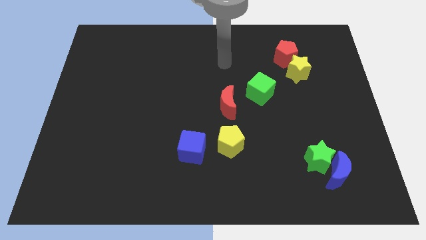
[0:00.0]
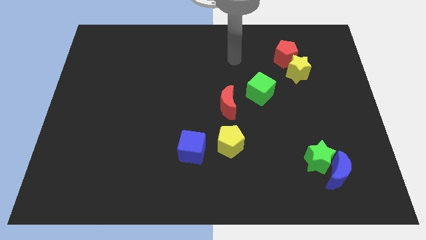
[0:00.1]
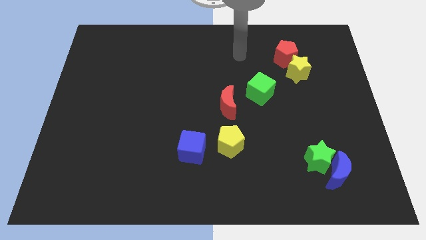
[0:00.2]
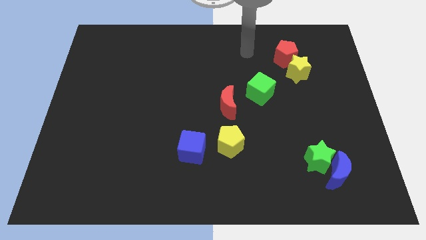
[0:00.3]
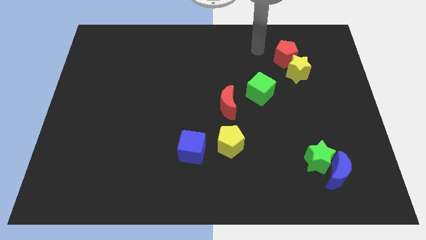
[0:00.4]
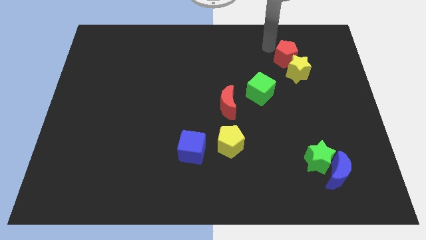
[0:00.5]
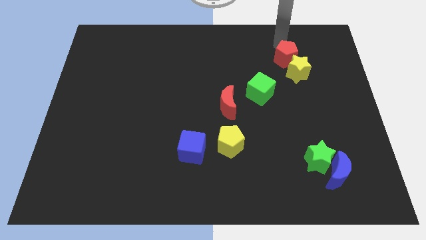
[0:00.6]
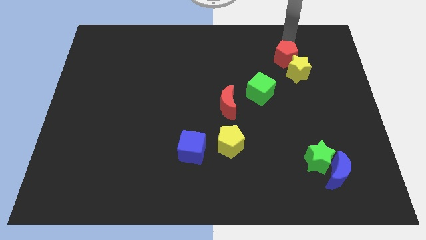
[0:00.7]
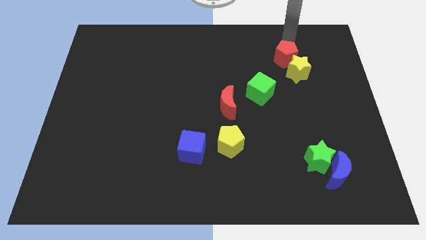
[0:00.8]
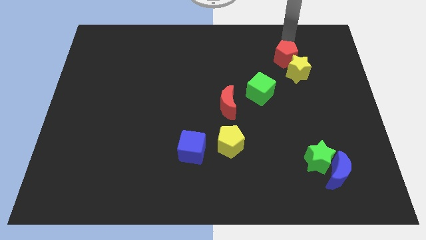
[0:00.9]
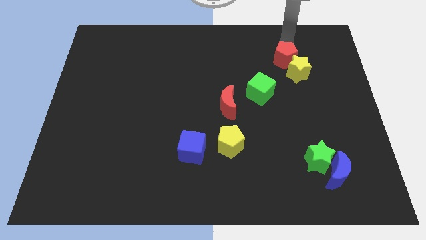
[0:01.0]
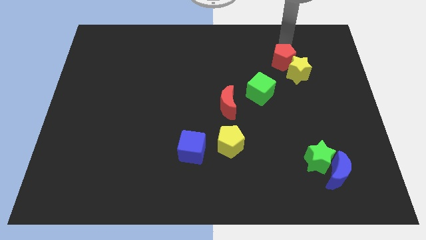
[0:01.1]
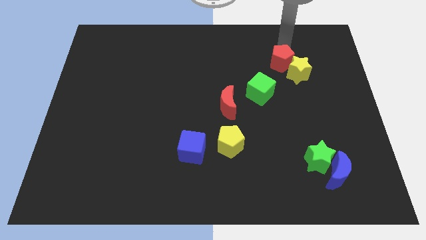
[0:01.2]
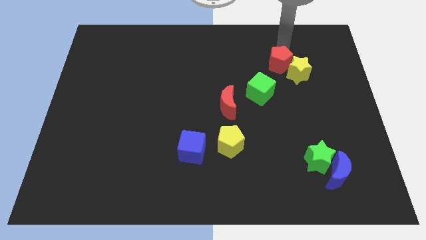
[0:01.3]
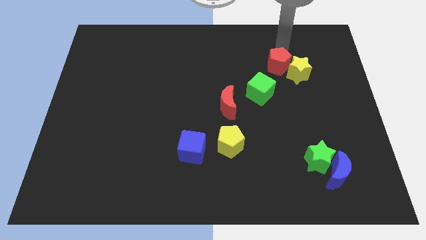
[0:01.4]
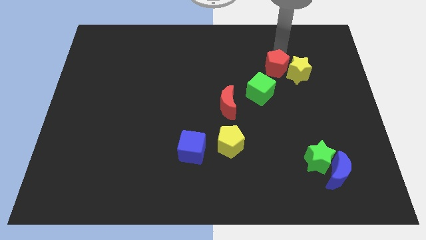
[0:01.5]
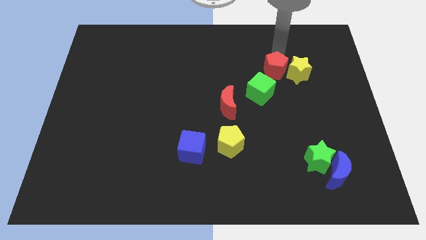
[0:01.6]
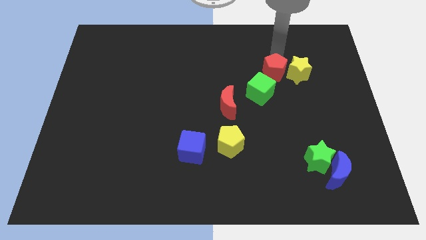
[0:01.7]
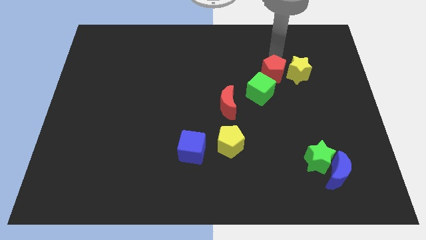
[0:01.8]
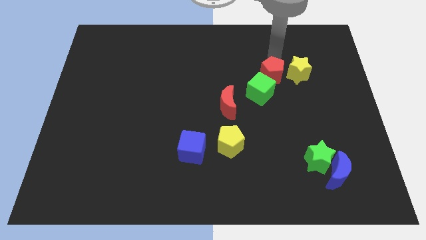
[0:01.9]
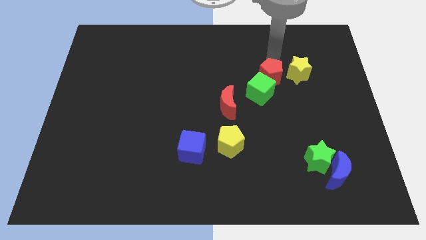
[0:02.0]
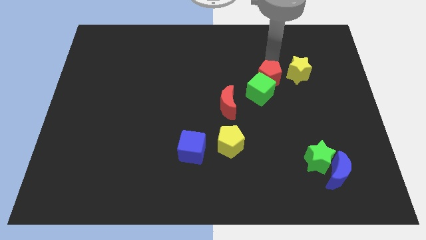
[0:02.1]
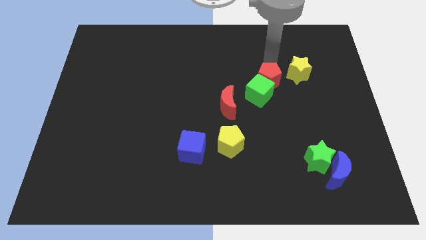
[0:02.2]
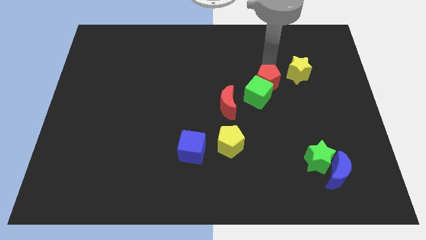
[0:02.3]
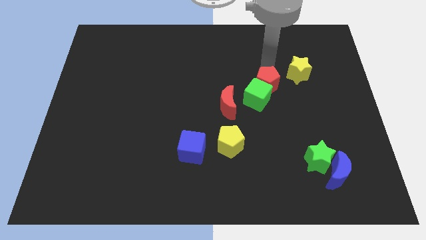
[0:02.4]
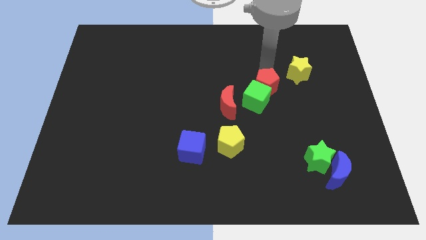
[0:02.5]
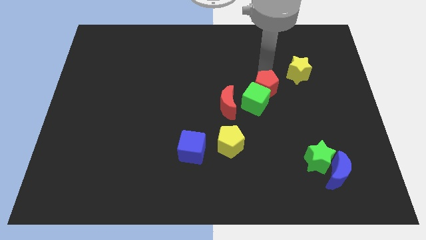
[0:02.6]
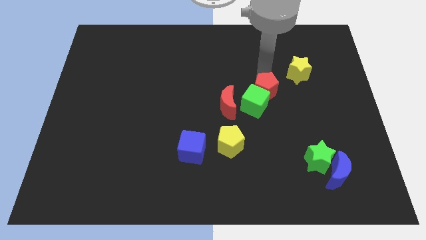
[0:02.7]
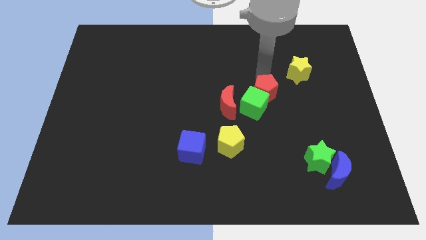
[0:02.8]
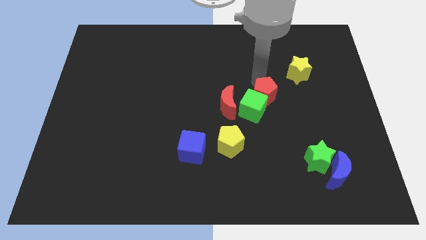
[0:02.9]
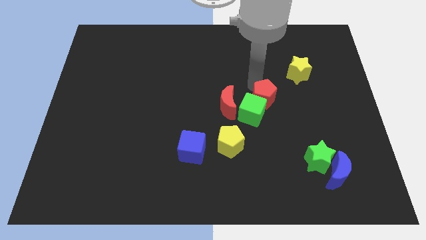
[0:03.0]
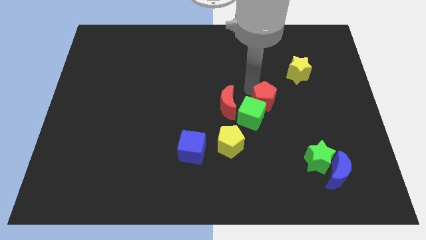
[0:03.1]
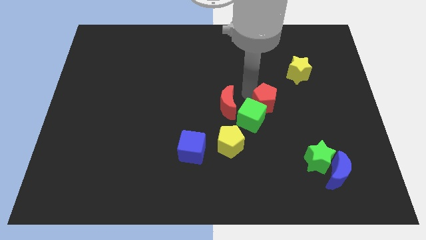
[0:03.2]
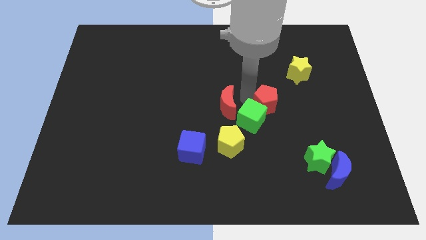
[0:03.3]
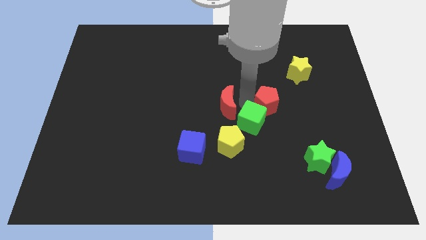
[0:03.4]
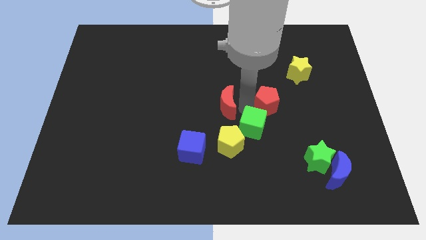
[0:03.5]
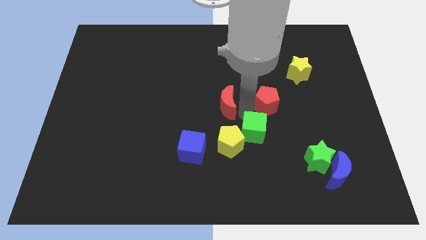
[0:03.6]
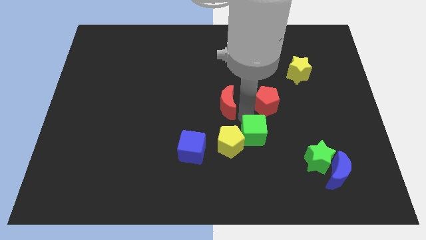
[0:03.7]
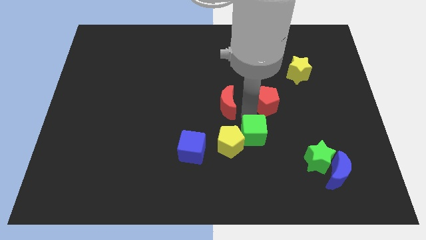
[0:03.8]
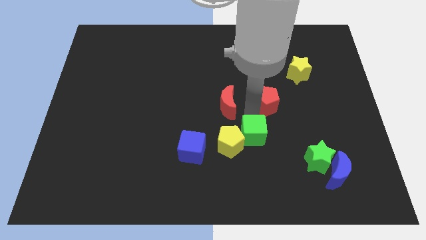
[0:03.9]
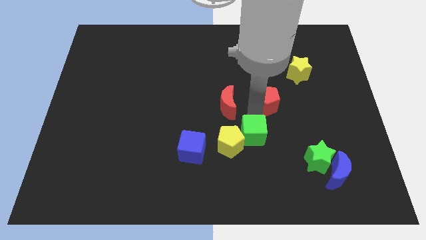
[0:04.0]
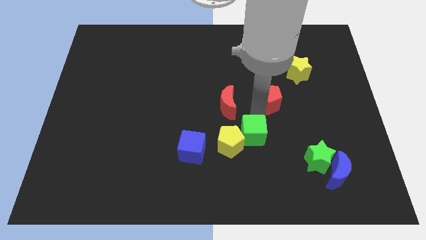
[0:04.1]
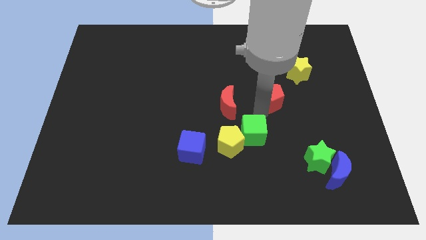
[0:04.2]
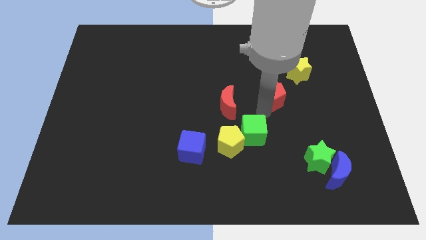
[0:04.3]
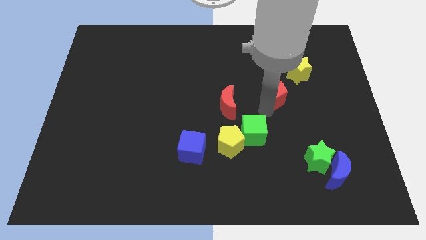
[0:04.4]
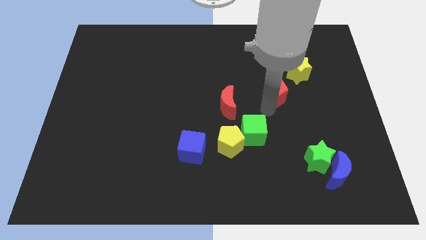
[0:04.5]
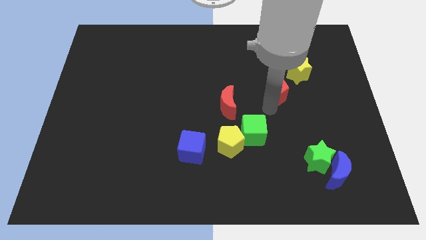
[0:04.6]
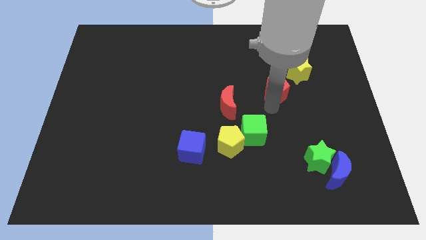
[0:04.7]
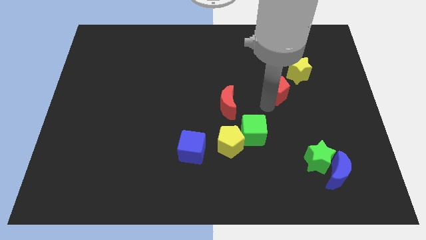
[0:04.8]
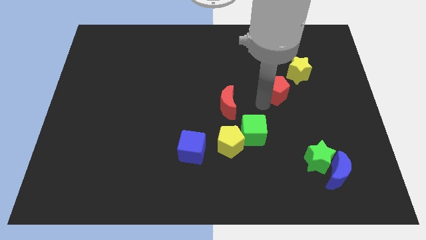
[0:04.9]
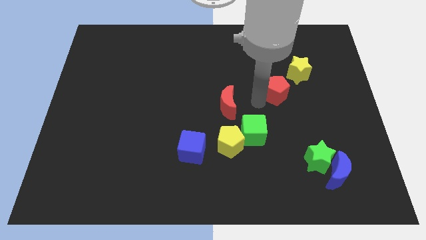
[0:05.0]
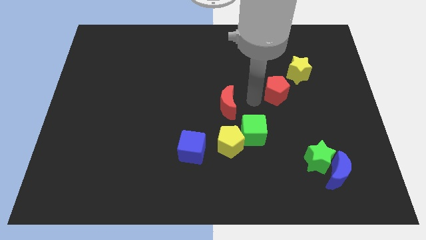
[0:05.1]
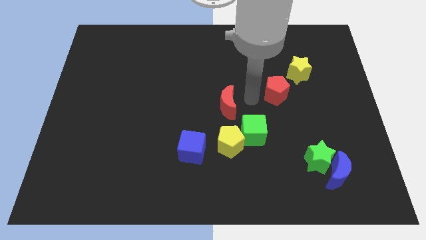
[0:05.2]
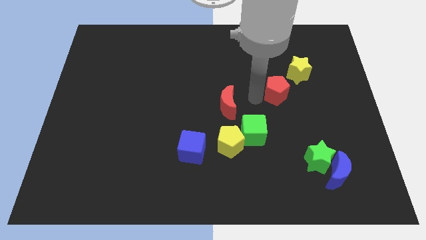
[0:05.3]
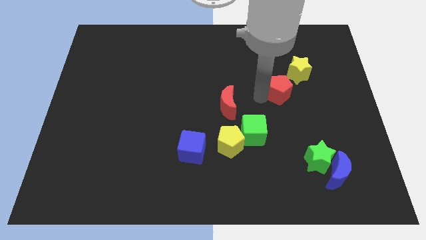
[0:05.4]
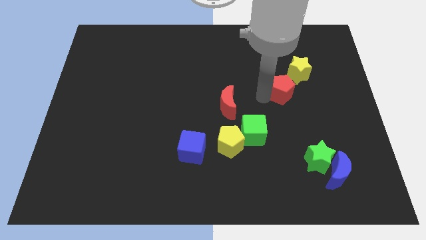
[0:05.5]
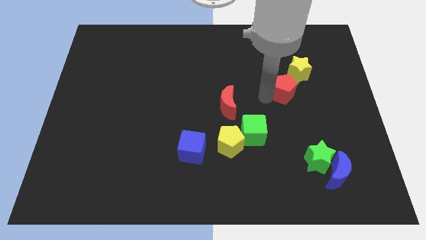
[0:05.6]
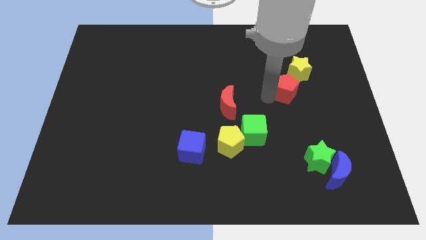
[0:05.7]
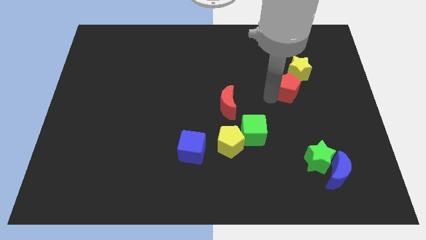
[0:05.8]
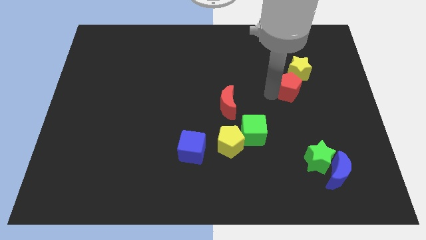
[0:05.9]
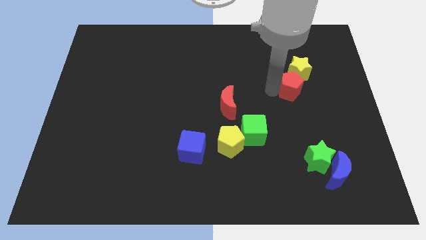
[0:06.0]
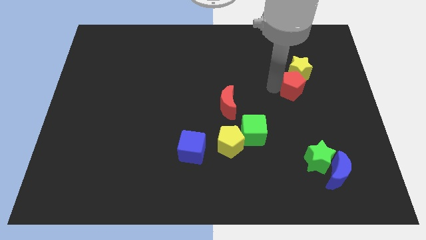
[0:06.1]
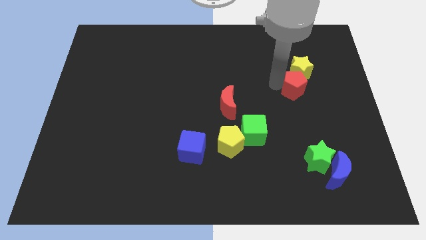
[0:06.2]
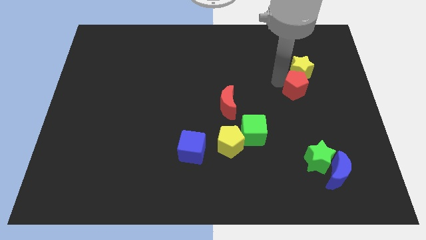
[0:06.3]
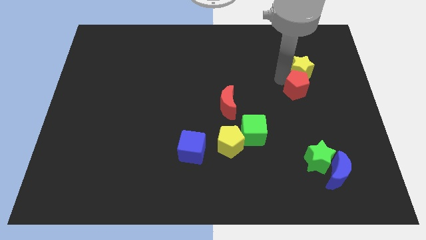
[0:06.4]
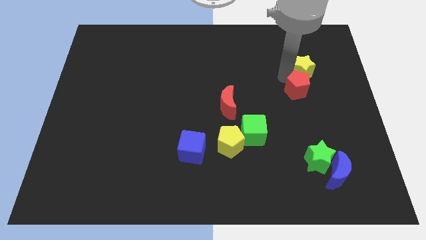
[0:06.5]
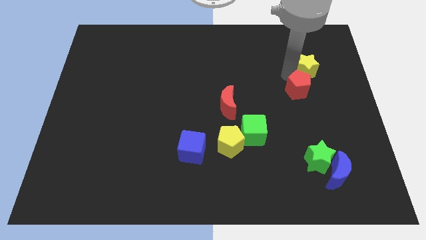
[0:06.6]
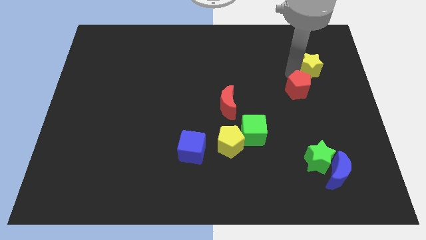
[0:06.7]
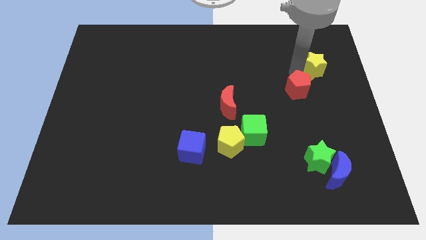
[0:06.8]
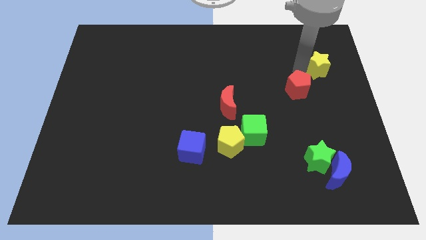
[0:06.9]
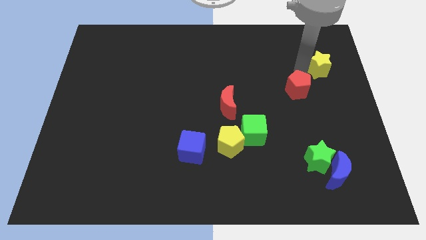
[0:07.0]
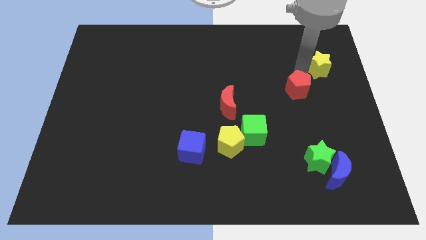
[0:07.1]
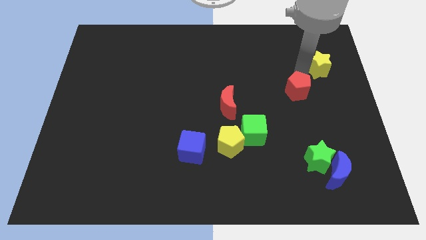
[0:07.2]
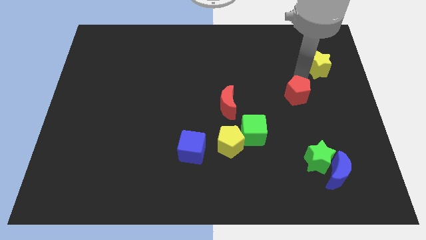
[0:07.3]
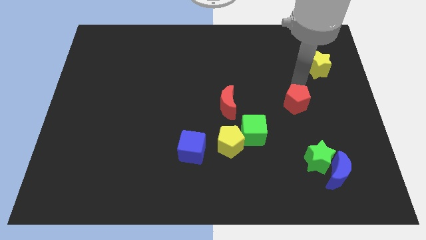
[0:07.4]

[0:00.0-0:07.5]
move the red pentagon to the top of the green star
